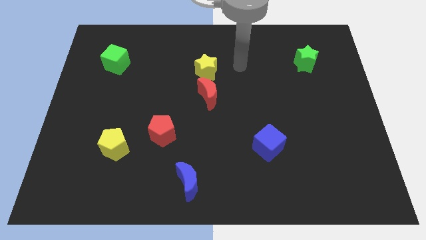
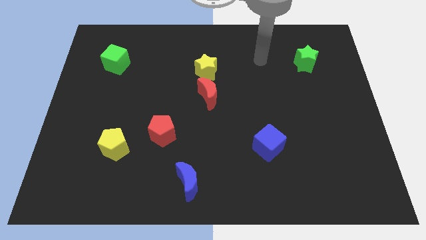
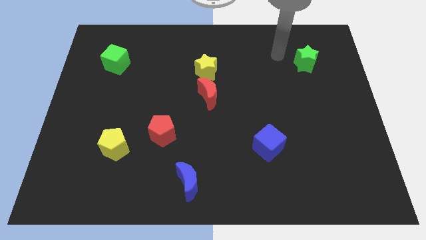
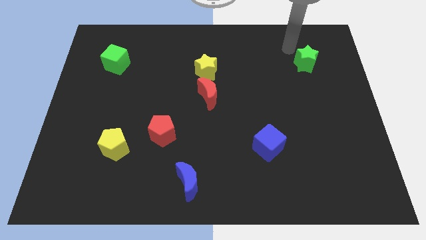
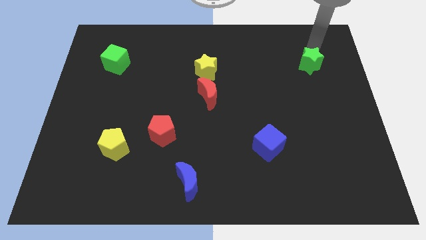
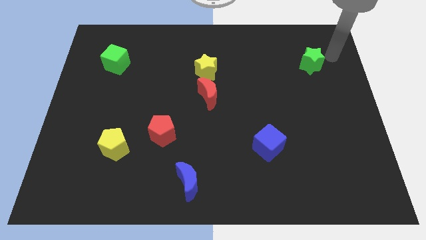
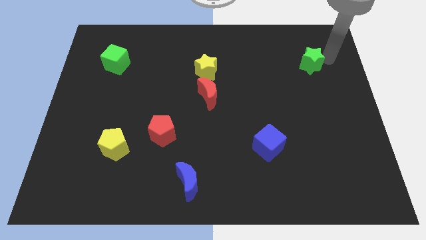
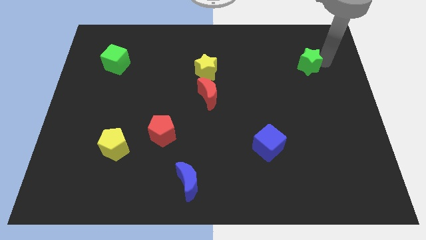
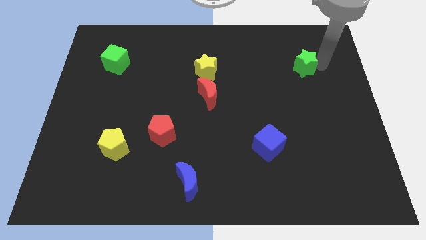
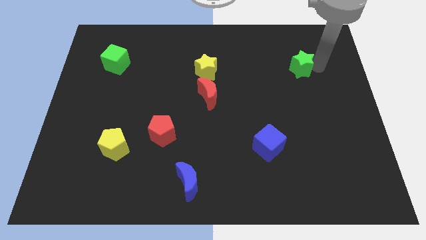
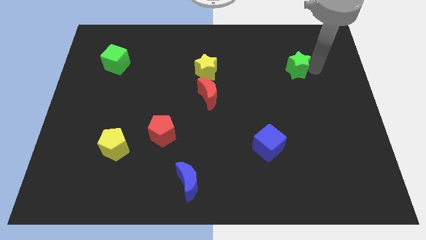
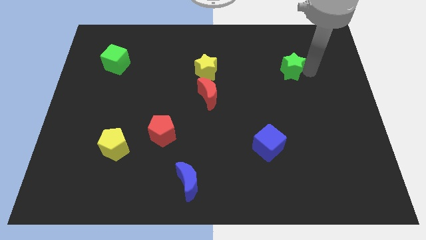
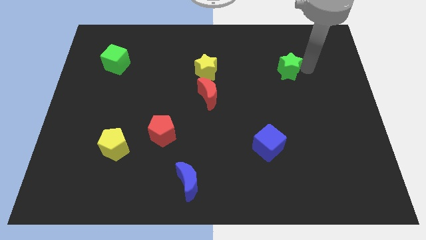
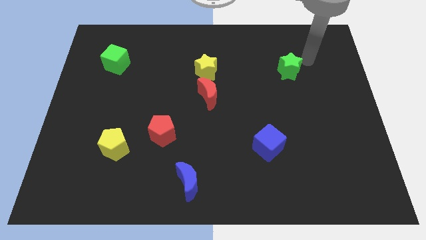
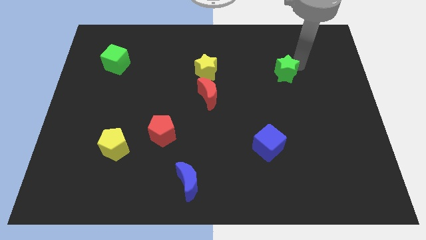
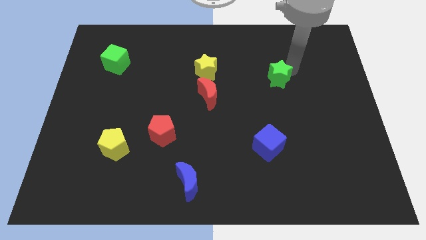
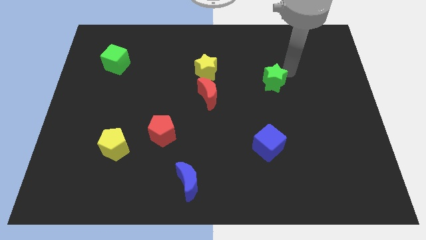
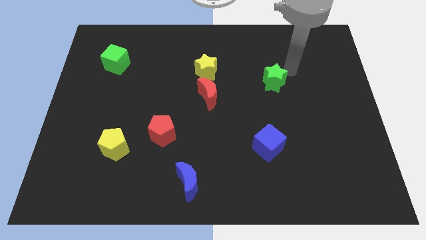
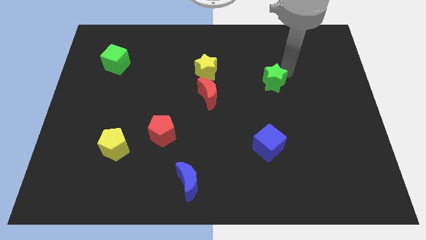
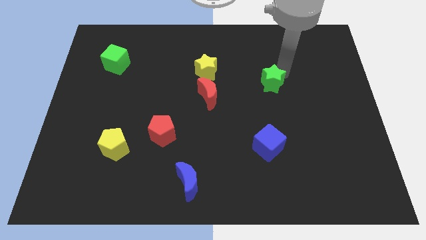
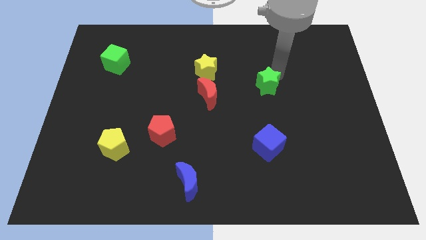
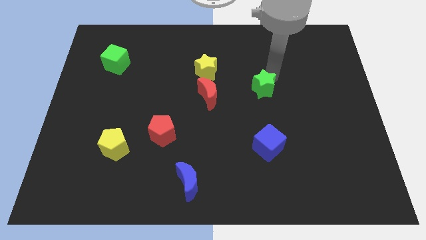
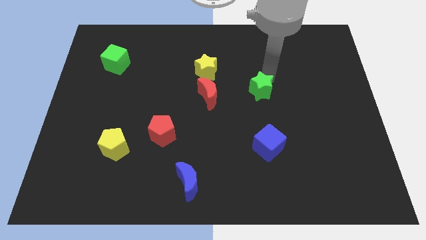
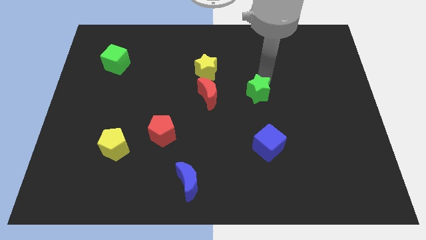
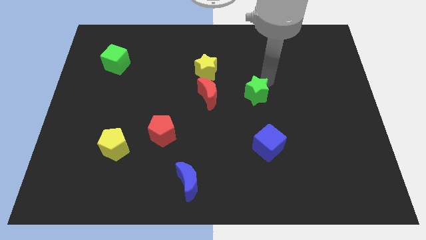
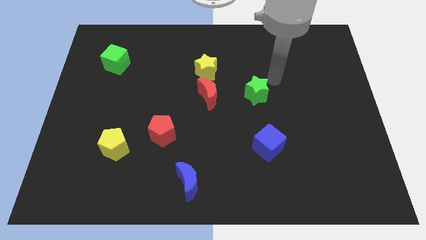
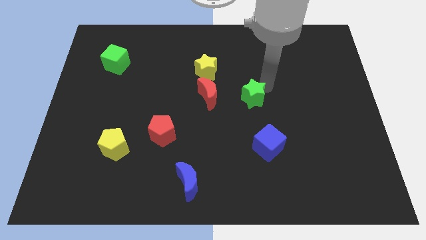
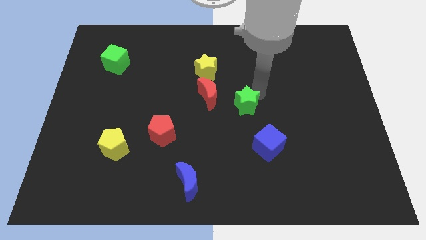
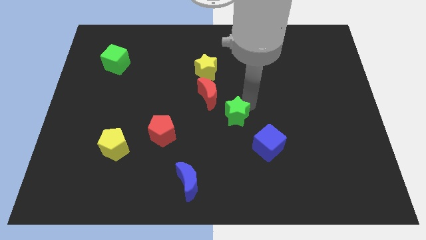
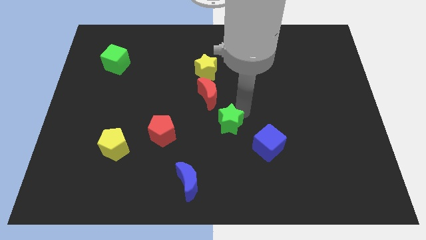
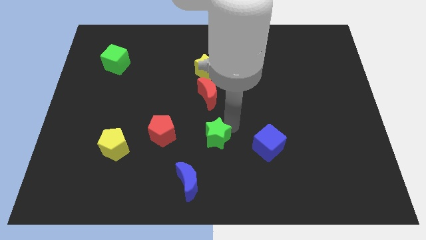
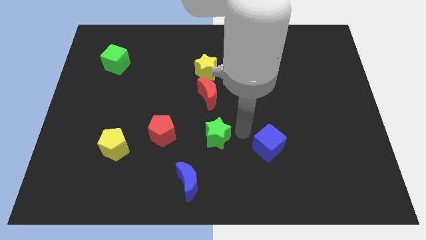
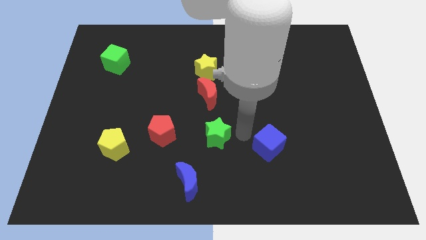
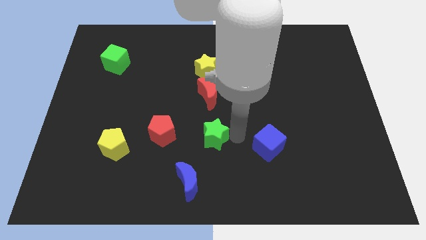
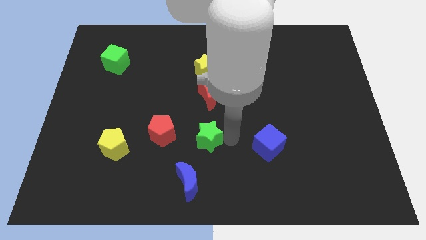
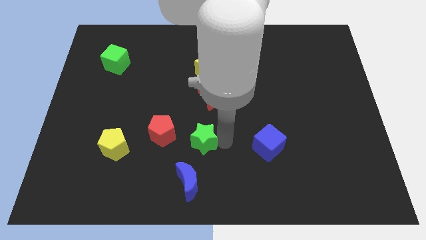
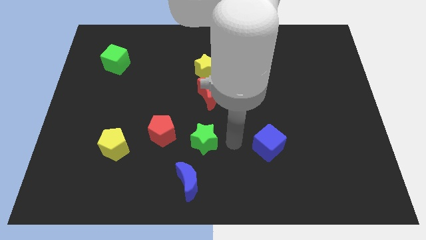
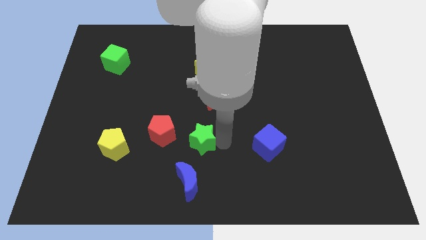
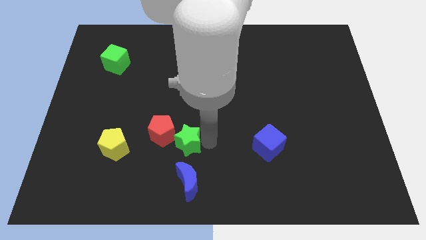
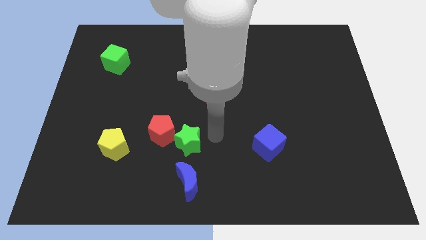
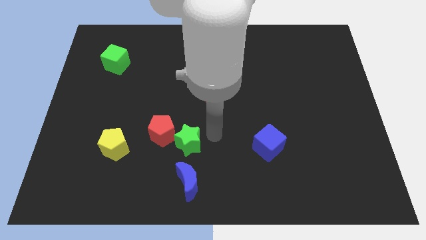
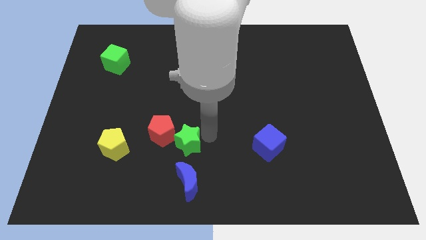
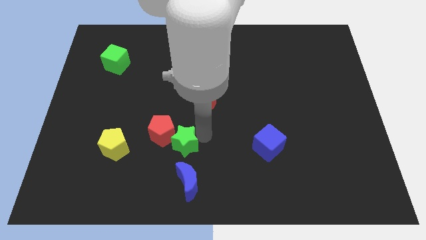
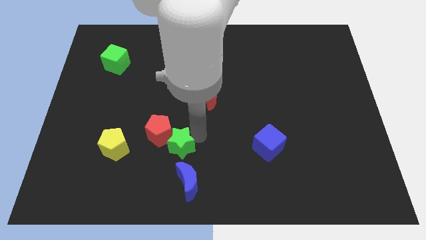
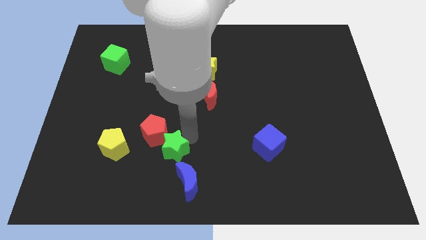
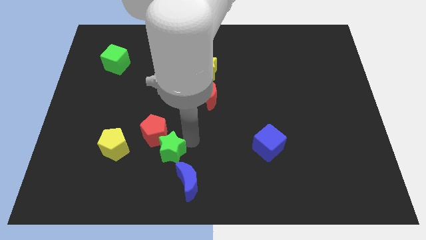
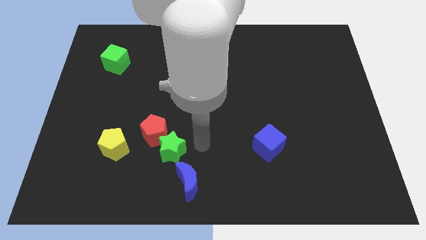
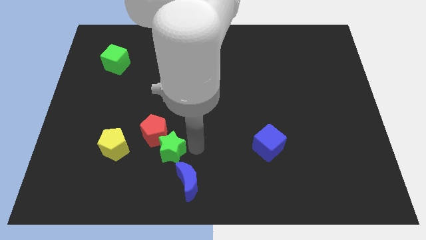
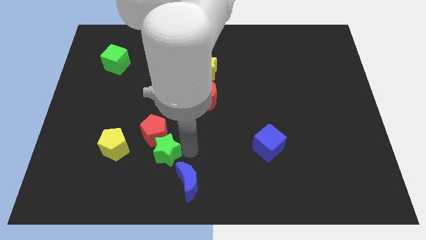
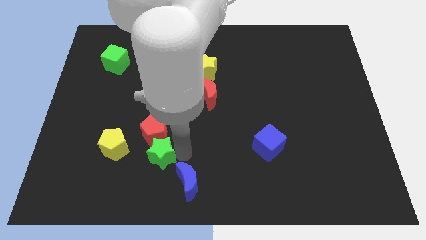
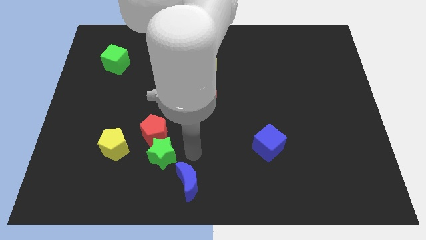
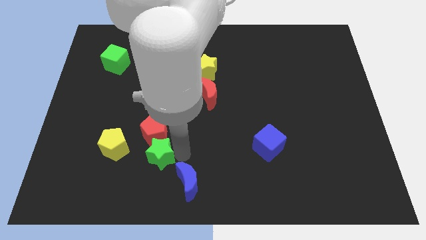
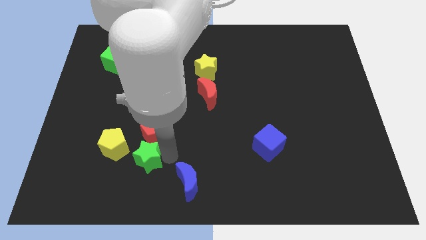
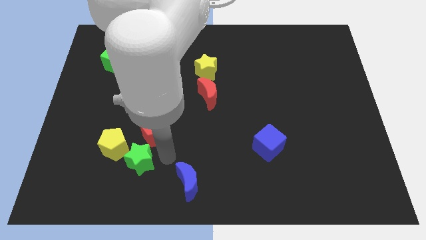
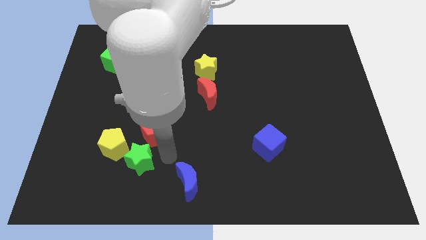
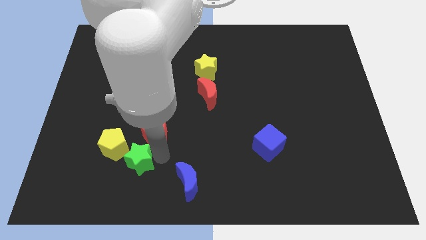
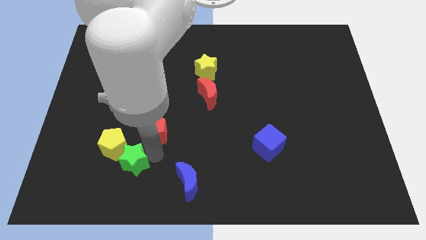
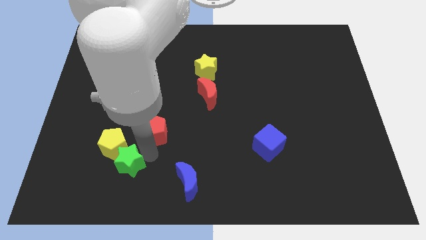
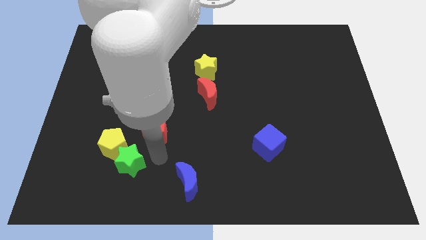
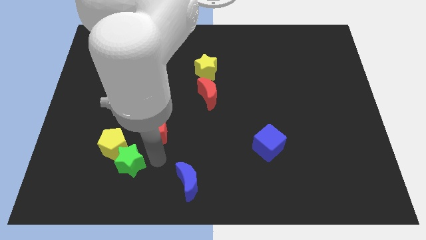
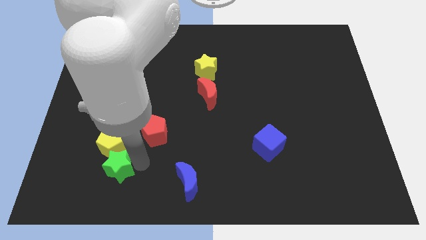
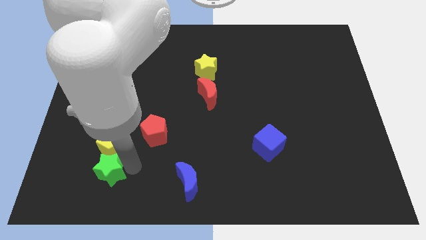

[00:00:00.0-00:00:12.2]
put the green star diagonally down and to the left of the yellow pentagon

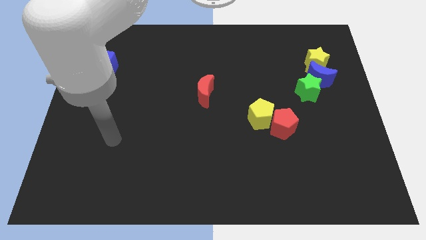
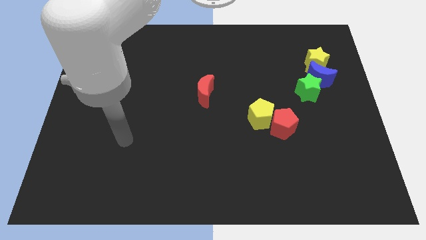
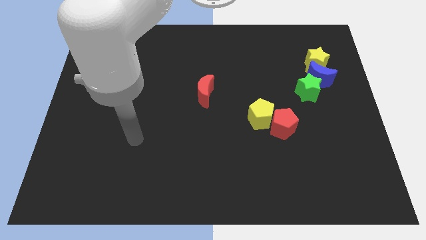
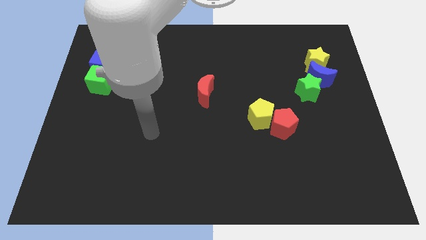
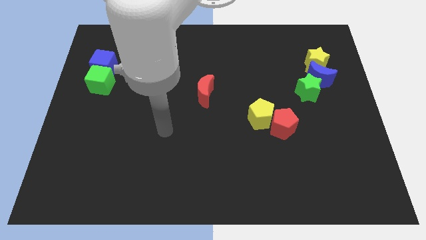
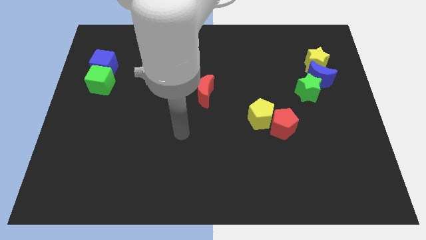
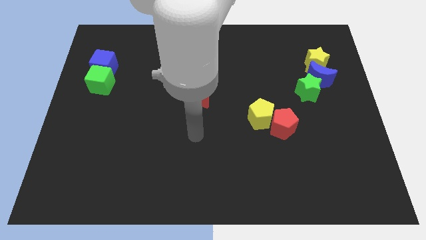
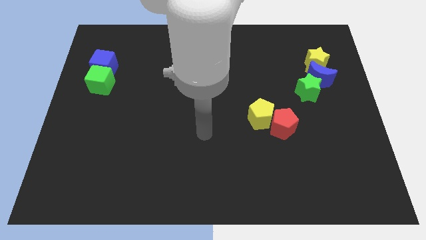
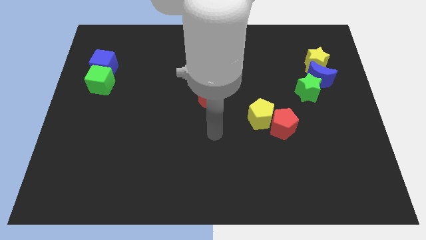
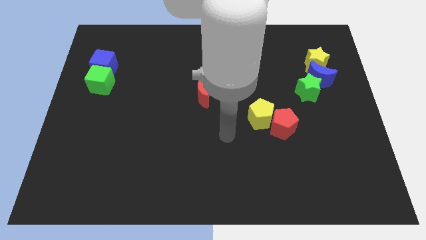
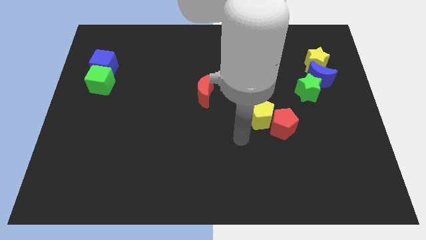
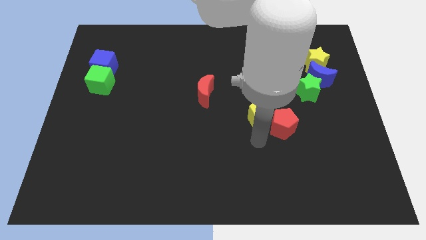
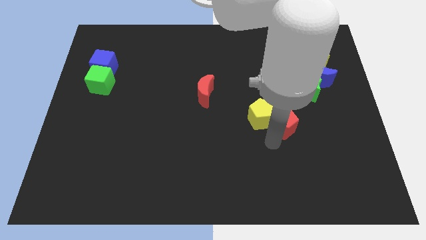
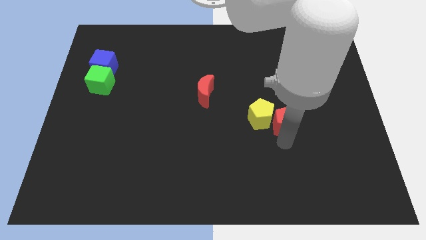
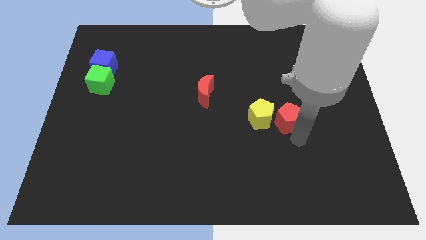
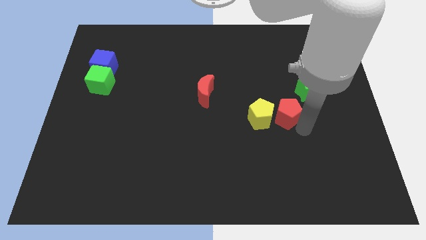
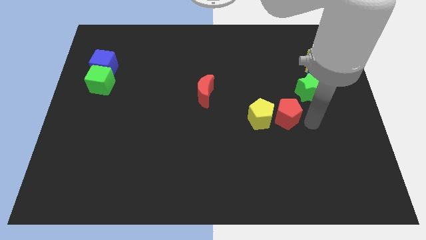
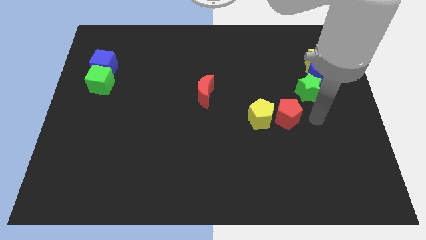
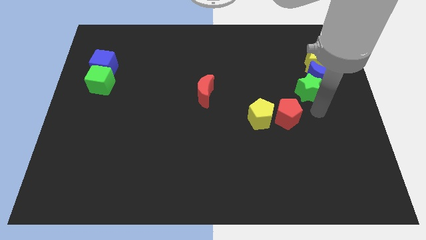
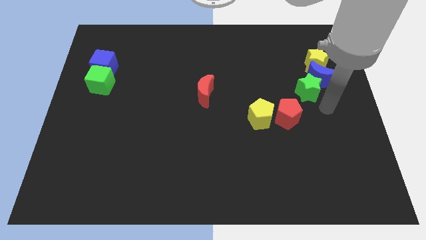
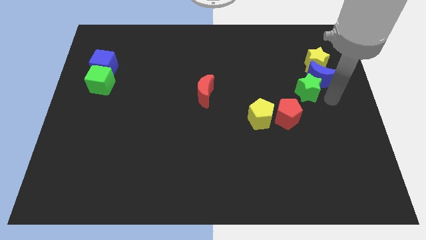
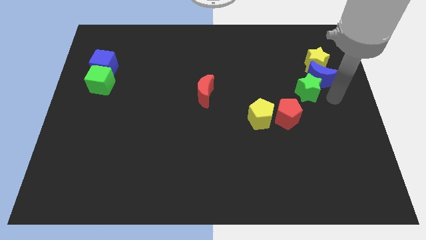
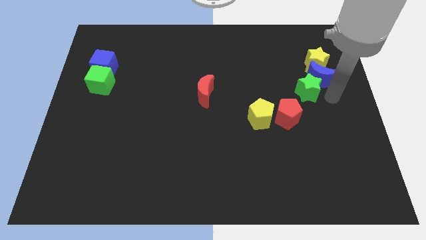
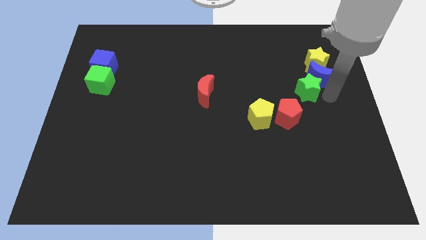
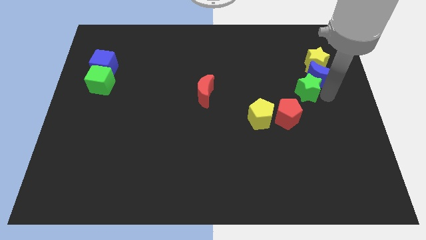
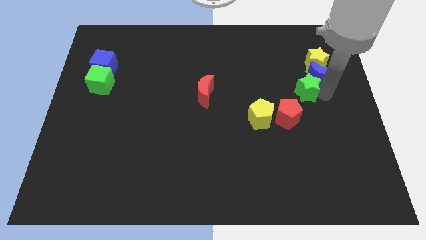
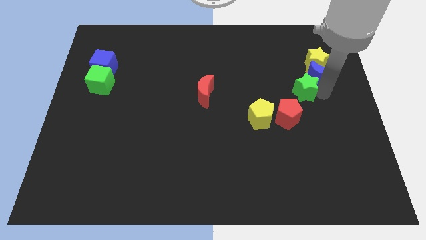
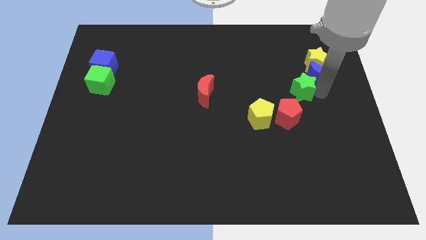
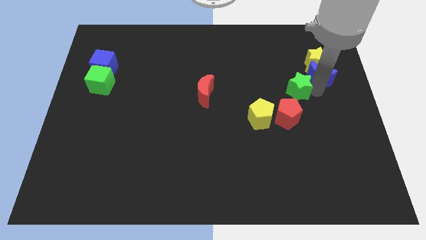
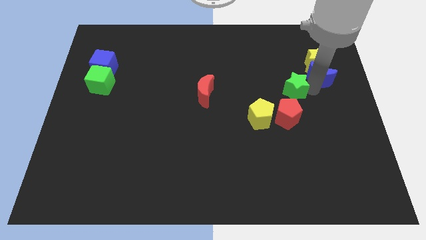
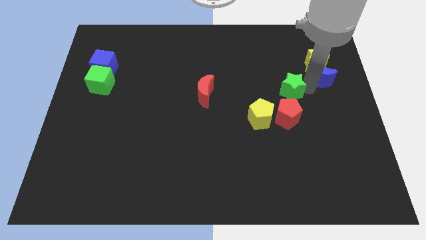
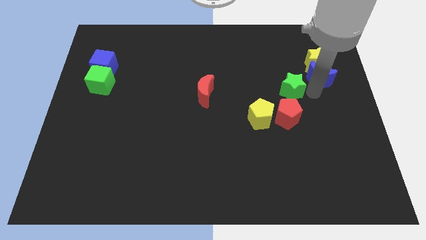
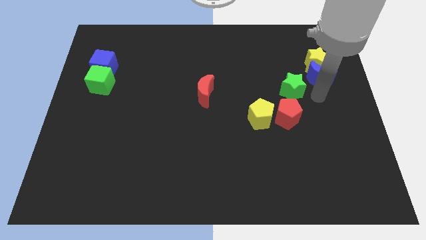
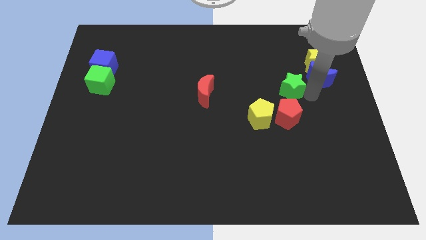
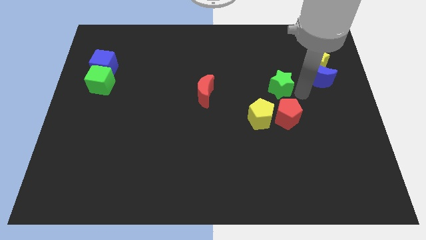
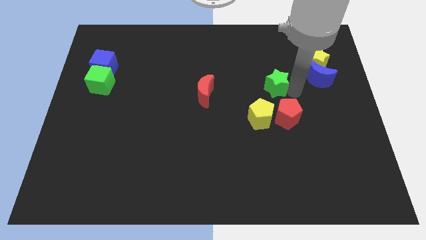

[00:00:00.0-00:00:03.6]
put the green star to the top side of the yellow pentagon
